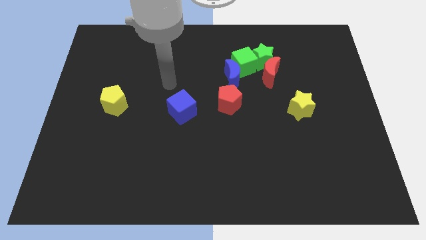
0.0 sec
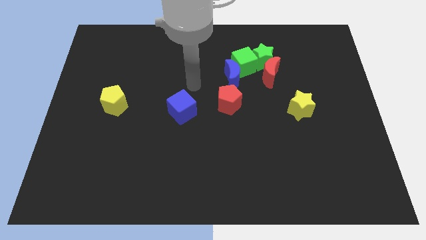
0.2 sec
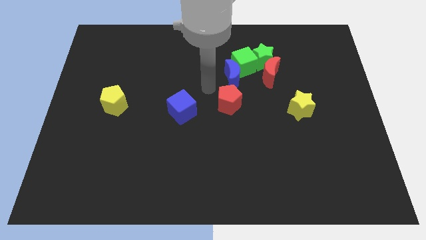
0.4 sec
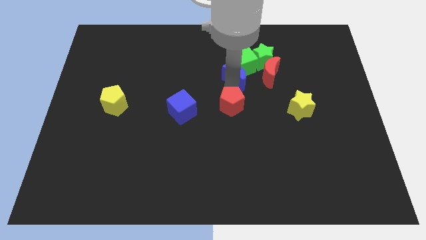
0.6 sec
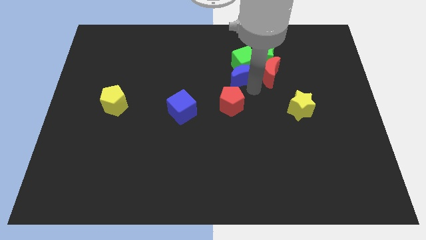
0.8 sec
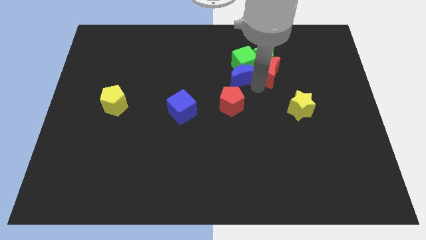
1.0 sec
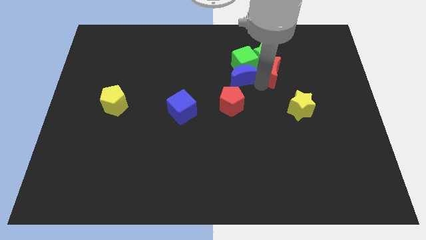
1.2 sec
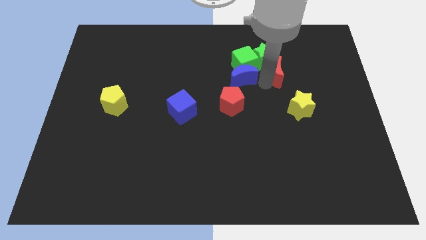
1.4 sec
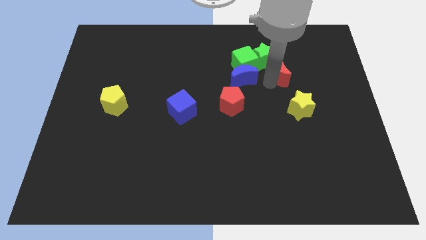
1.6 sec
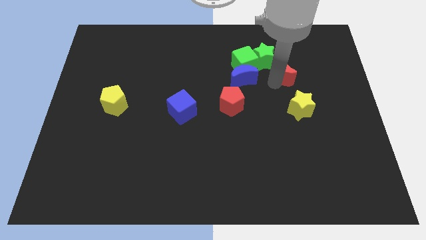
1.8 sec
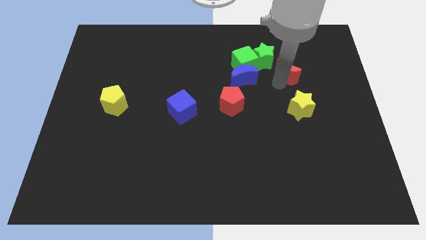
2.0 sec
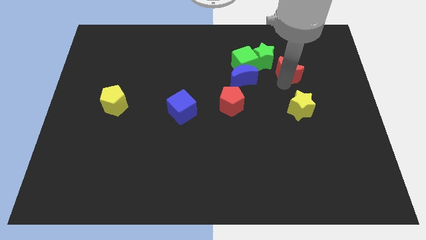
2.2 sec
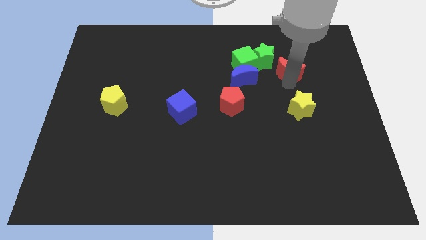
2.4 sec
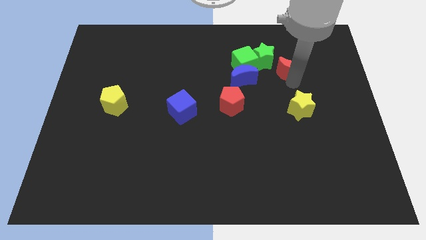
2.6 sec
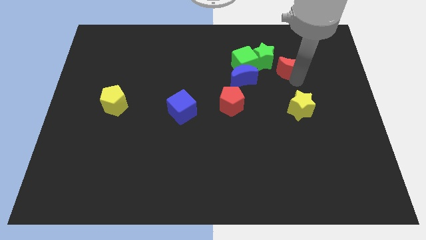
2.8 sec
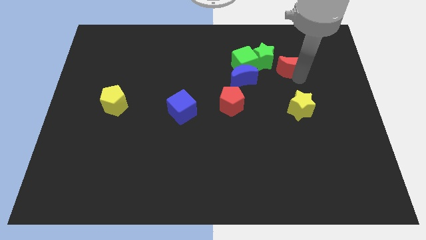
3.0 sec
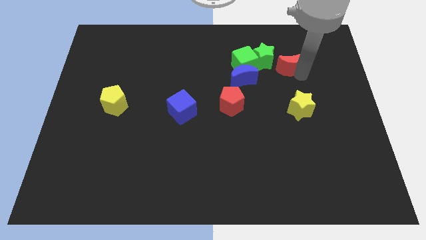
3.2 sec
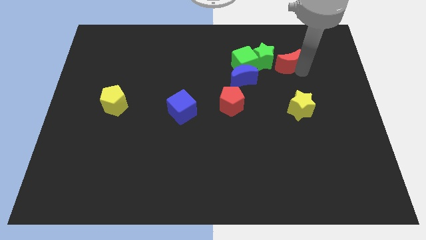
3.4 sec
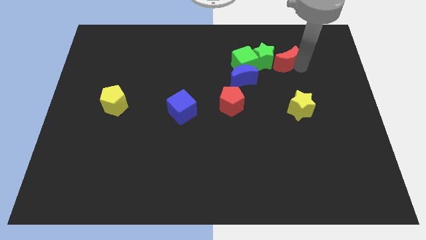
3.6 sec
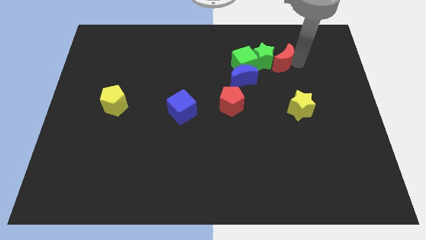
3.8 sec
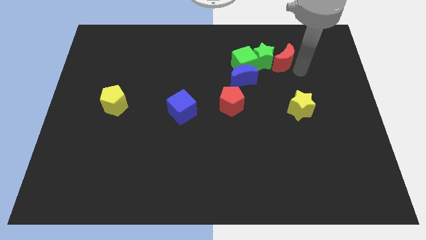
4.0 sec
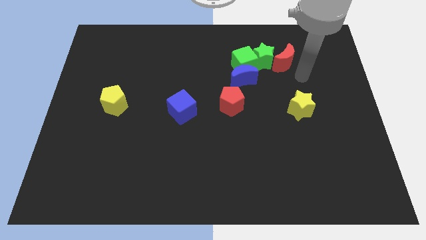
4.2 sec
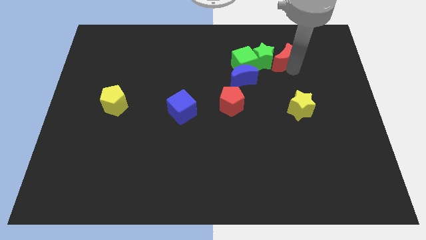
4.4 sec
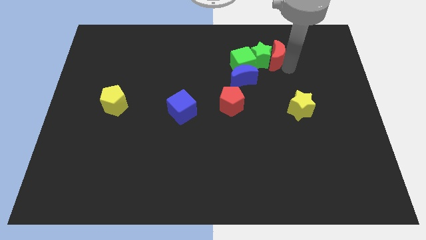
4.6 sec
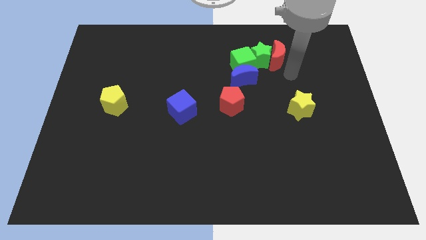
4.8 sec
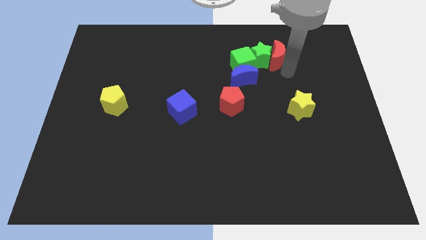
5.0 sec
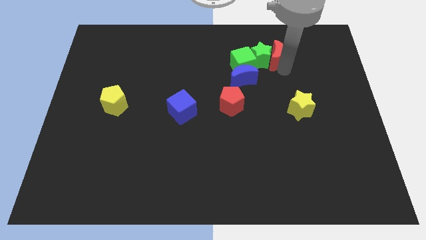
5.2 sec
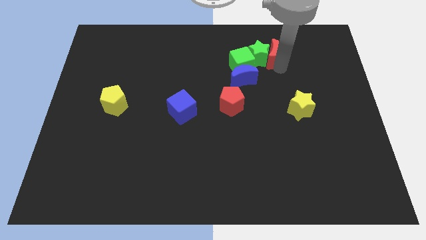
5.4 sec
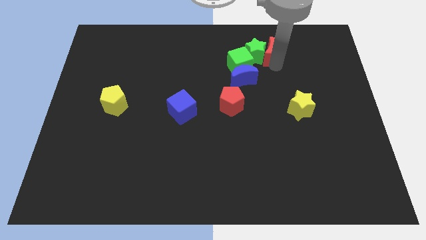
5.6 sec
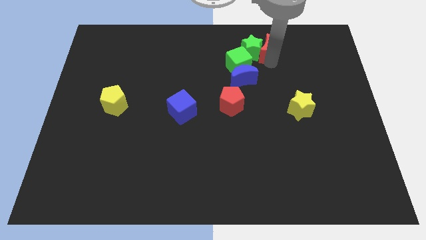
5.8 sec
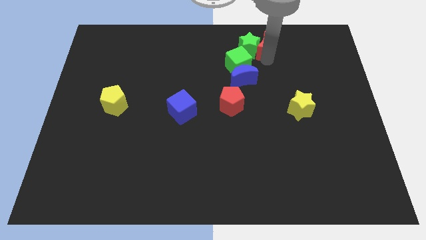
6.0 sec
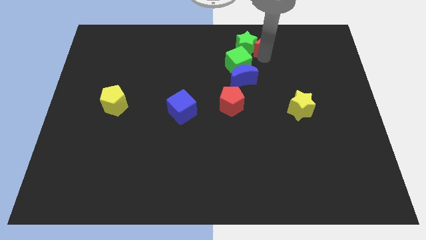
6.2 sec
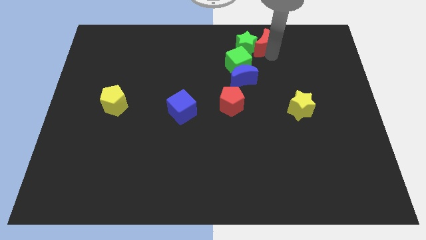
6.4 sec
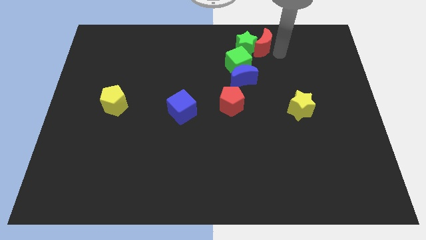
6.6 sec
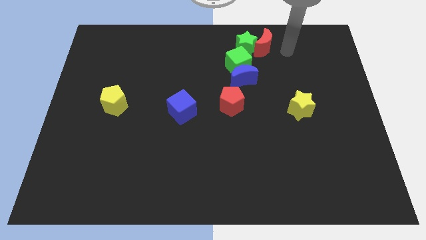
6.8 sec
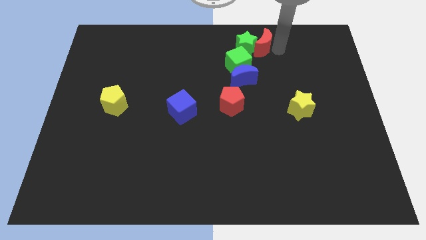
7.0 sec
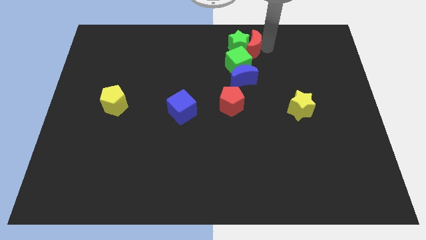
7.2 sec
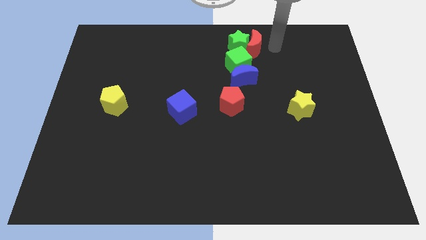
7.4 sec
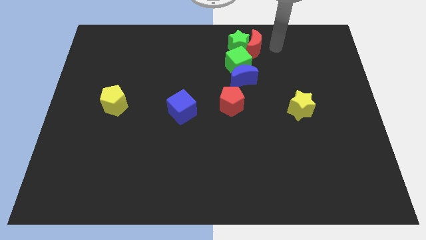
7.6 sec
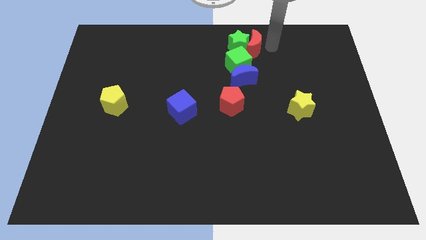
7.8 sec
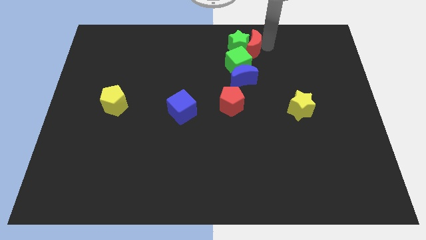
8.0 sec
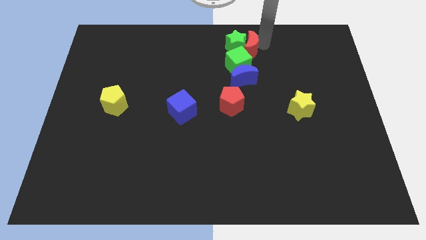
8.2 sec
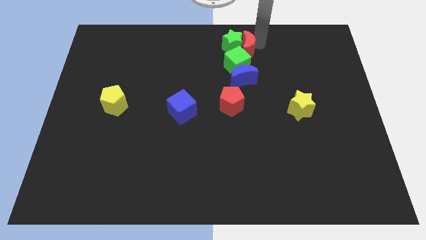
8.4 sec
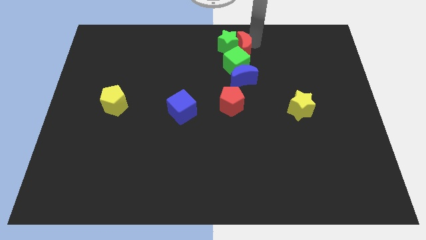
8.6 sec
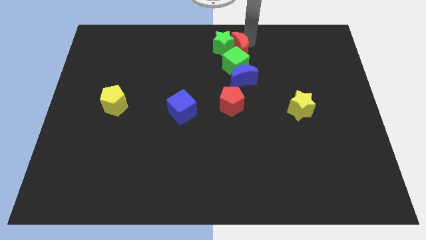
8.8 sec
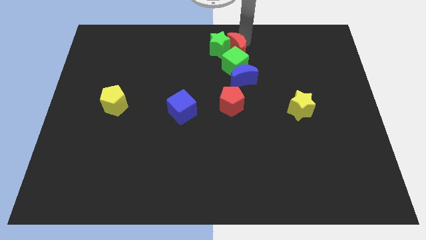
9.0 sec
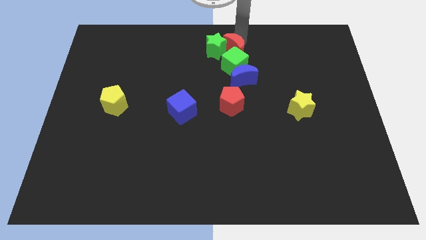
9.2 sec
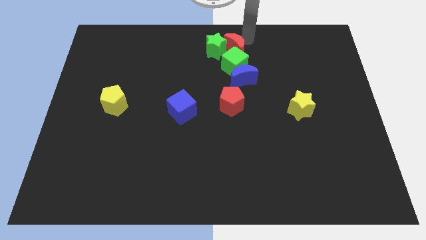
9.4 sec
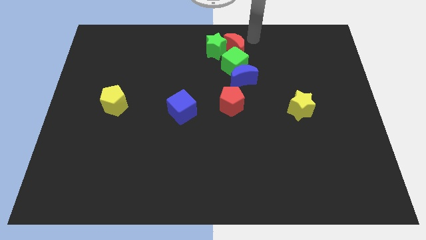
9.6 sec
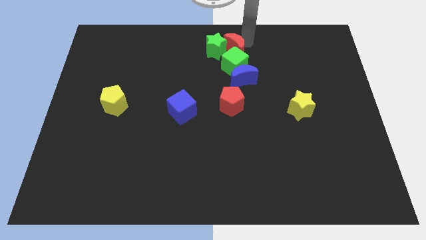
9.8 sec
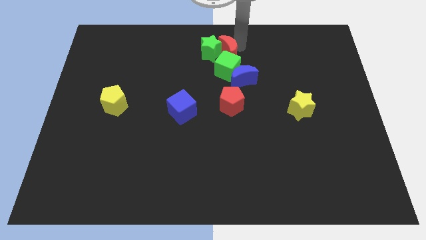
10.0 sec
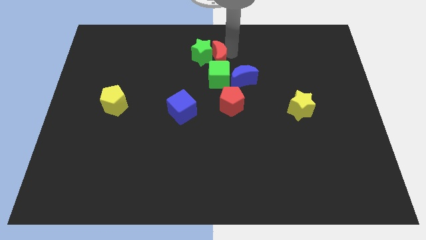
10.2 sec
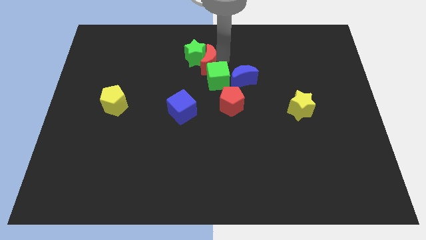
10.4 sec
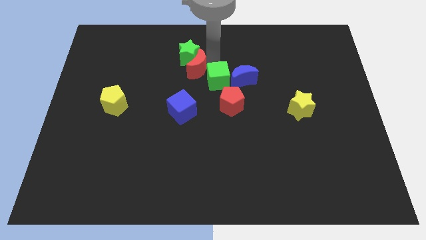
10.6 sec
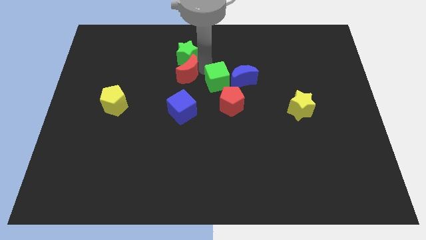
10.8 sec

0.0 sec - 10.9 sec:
push the red moon left

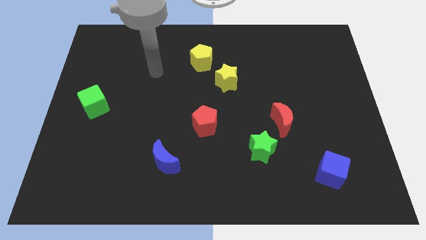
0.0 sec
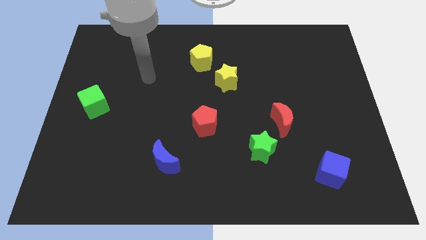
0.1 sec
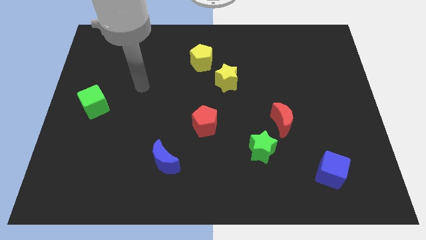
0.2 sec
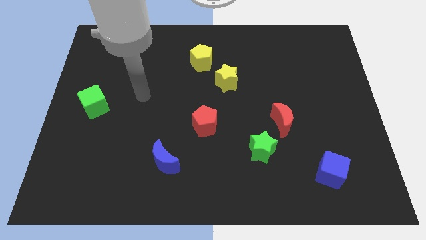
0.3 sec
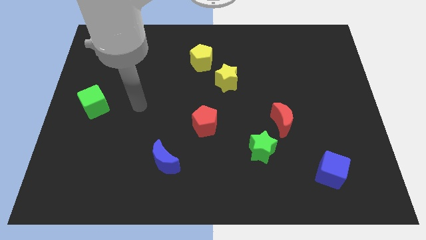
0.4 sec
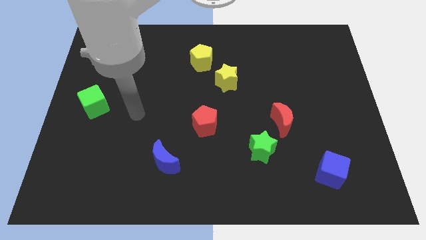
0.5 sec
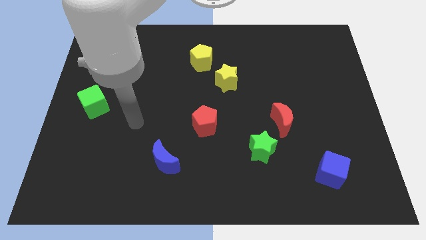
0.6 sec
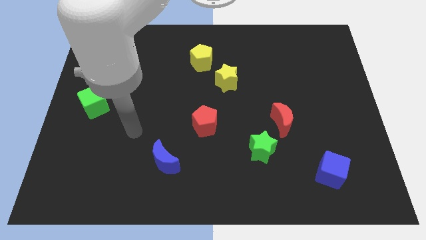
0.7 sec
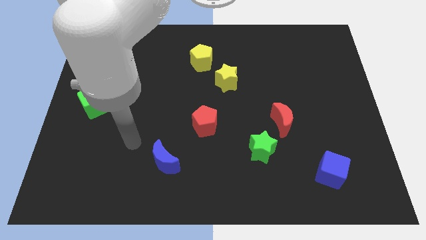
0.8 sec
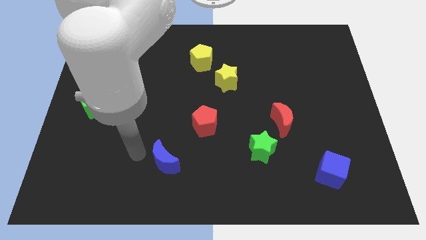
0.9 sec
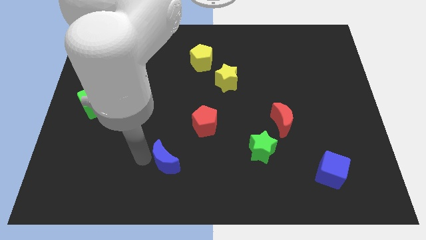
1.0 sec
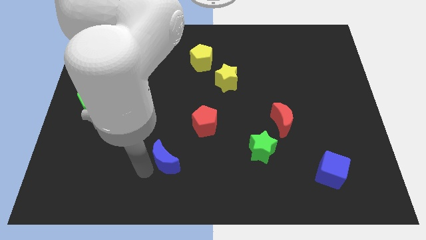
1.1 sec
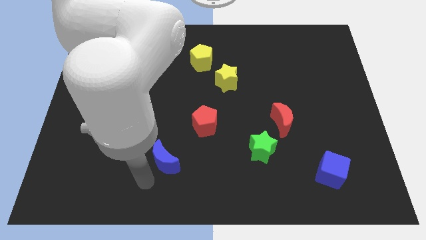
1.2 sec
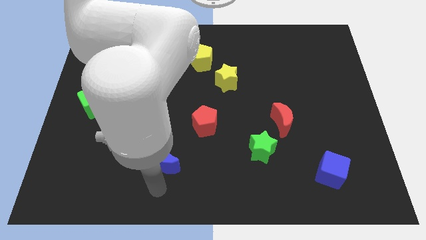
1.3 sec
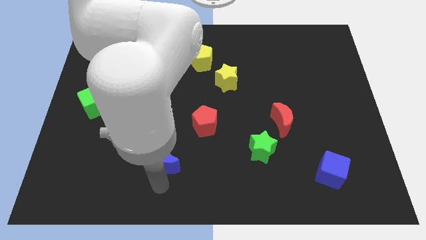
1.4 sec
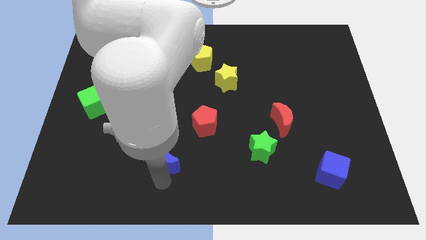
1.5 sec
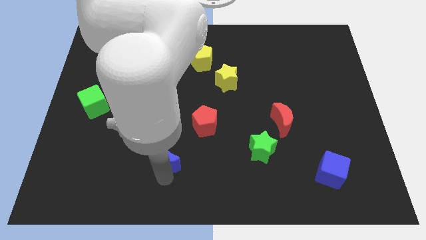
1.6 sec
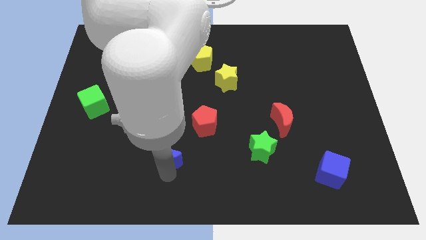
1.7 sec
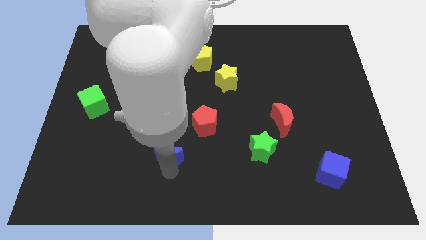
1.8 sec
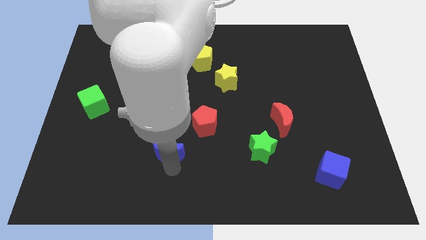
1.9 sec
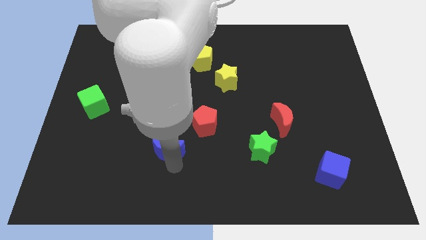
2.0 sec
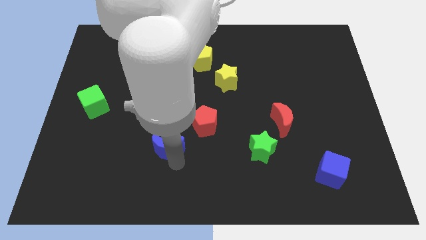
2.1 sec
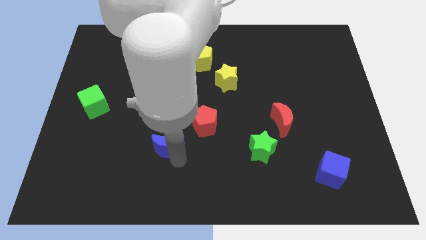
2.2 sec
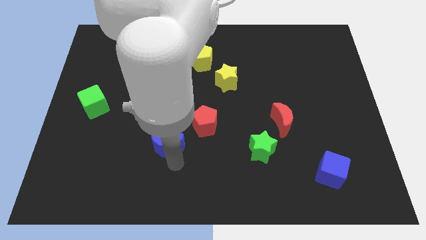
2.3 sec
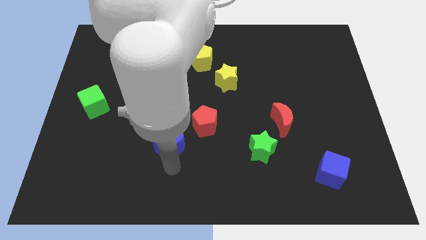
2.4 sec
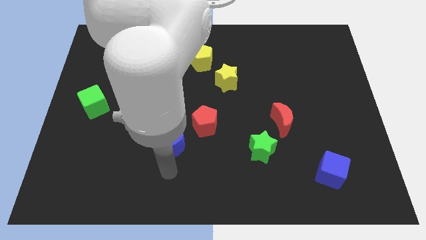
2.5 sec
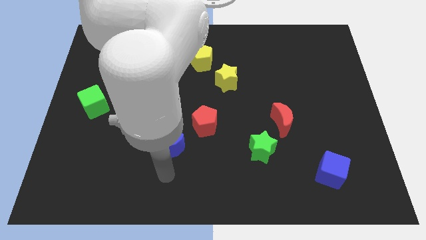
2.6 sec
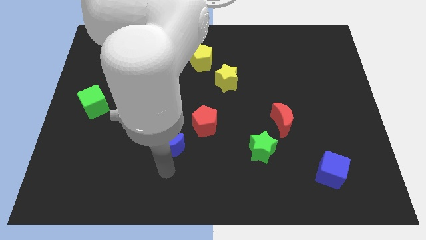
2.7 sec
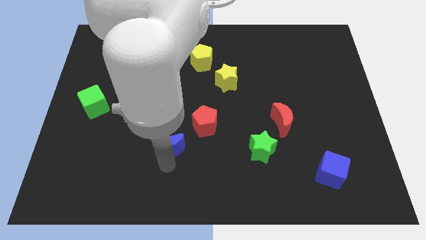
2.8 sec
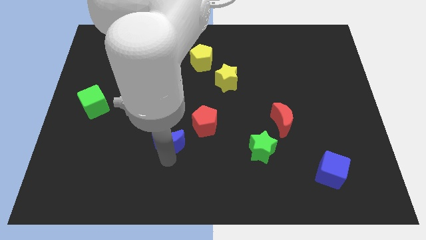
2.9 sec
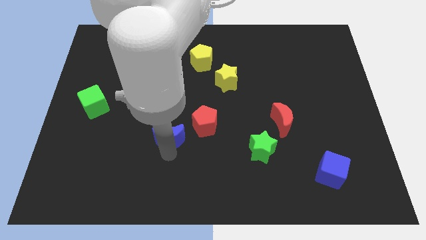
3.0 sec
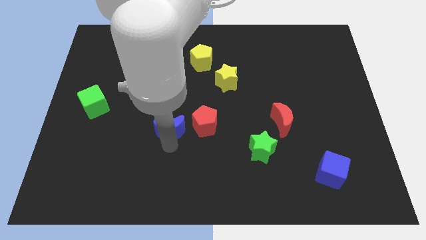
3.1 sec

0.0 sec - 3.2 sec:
slightly move the blue moon upwards
